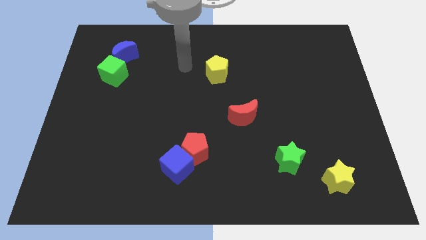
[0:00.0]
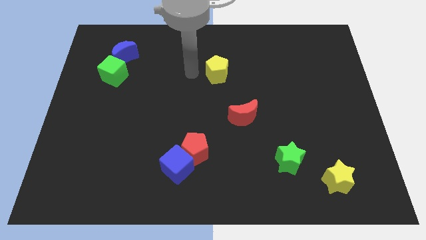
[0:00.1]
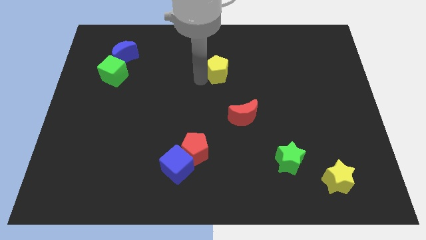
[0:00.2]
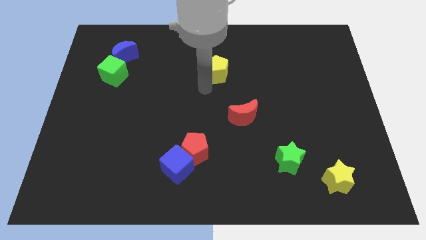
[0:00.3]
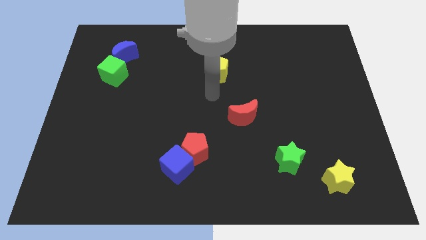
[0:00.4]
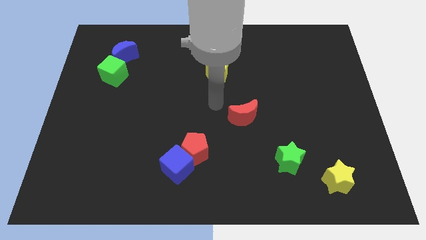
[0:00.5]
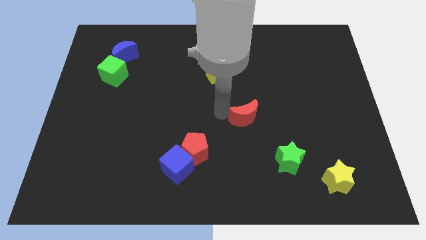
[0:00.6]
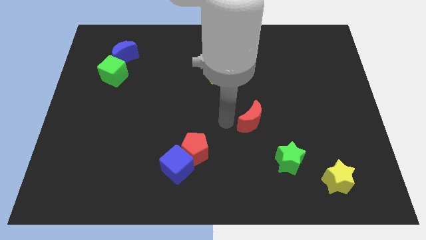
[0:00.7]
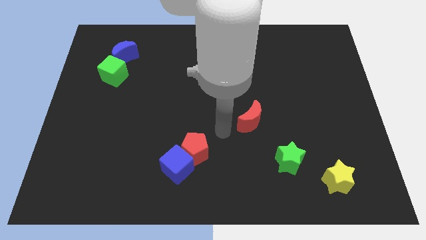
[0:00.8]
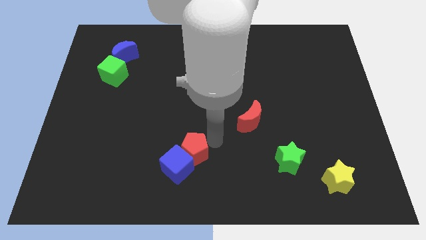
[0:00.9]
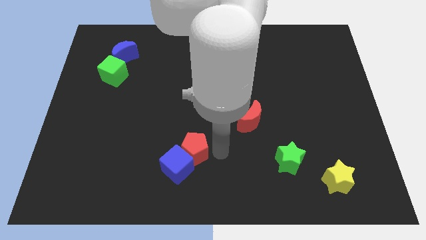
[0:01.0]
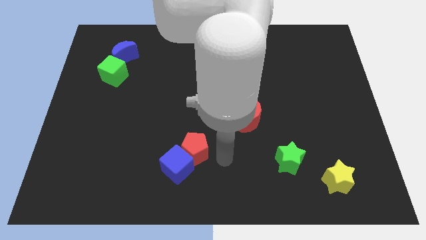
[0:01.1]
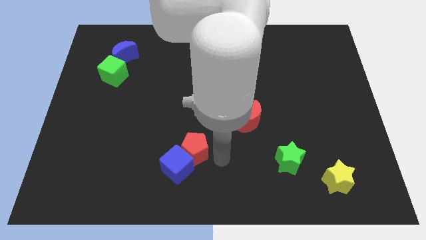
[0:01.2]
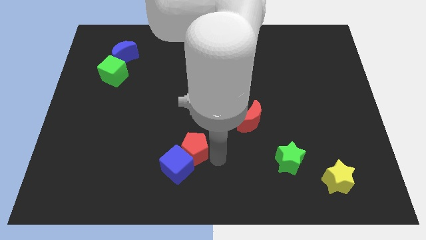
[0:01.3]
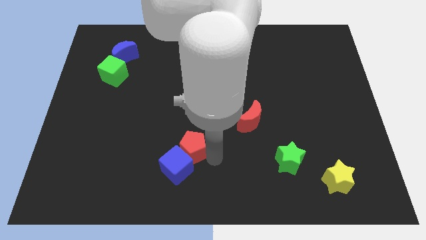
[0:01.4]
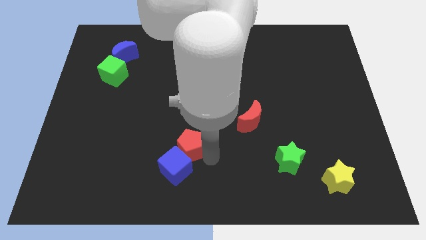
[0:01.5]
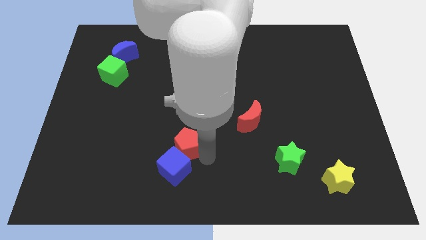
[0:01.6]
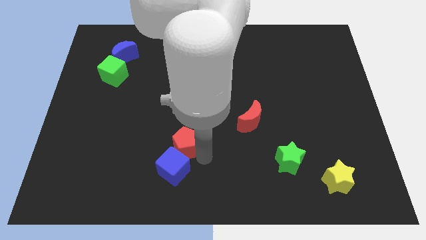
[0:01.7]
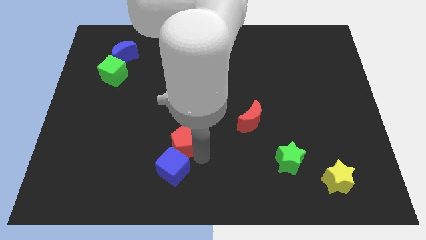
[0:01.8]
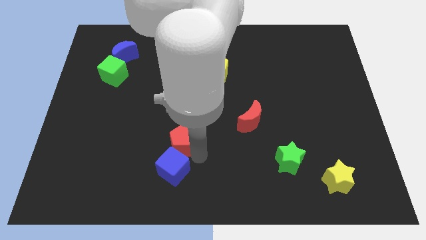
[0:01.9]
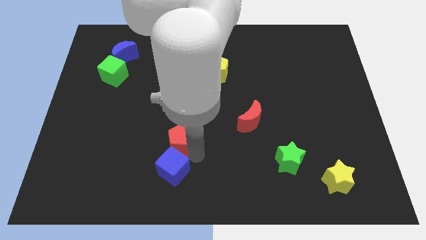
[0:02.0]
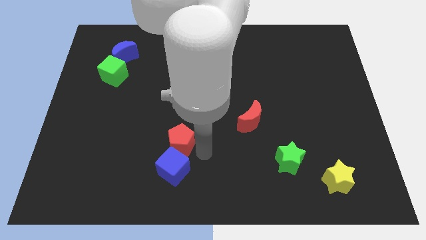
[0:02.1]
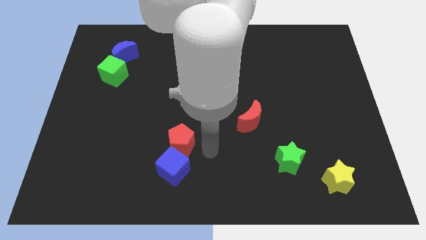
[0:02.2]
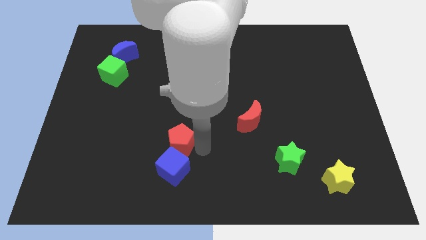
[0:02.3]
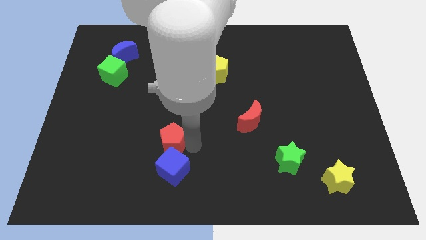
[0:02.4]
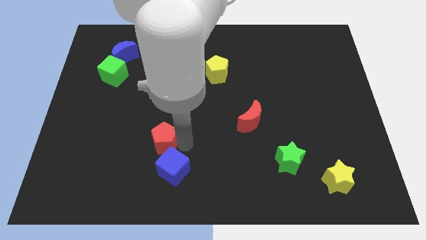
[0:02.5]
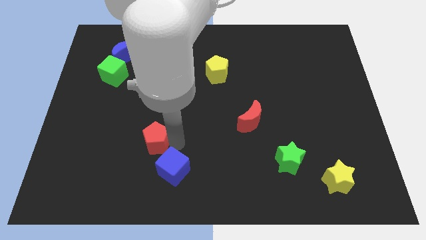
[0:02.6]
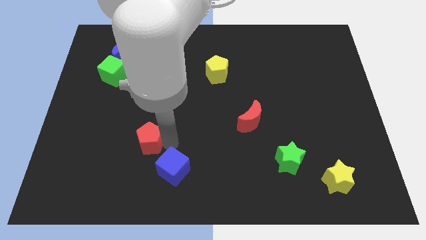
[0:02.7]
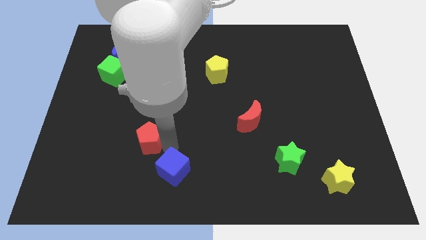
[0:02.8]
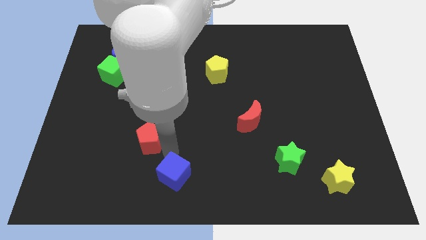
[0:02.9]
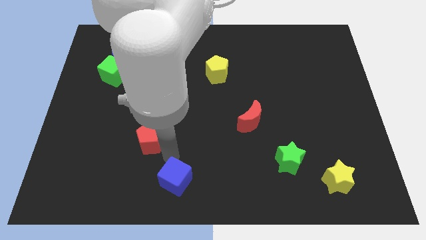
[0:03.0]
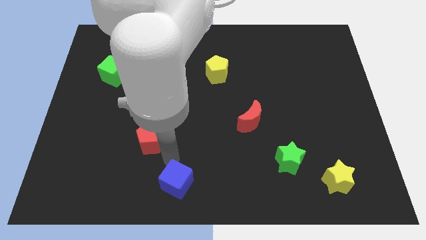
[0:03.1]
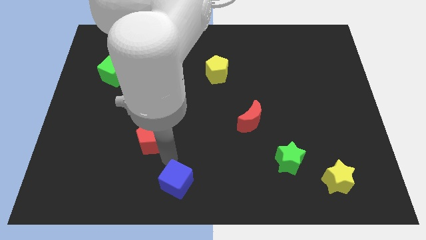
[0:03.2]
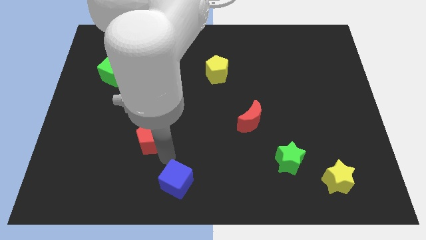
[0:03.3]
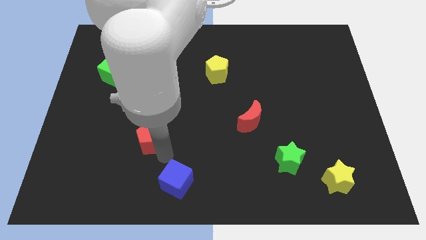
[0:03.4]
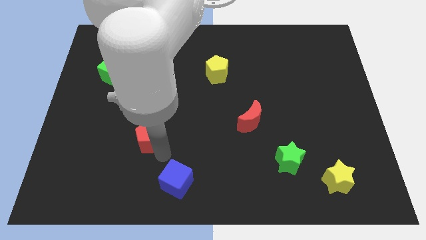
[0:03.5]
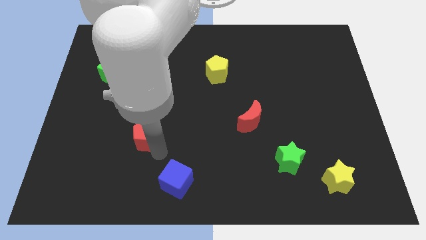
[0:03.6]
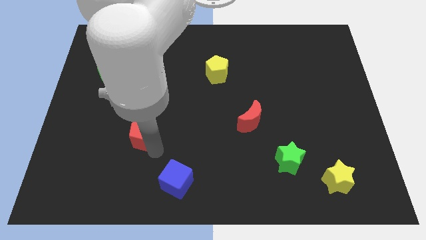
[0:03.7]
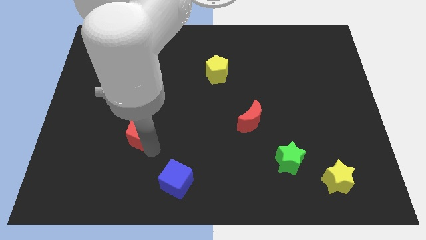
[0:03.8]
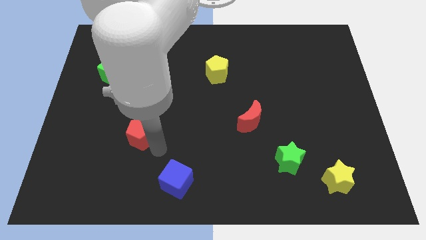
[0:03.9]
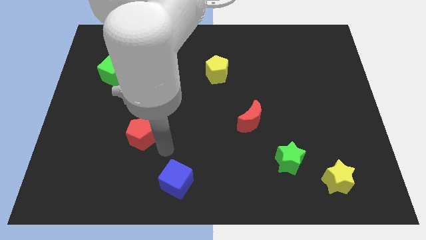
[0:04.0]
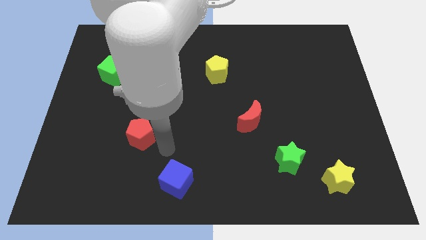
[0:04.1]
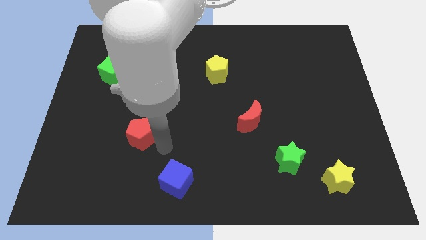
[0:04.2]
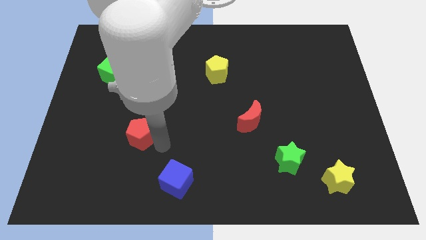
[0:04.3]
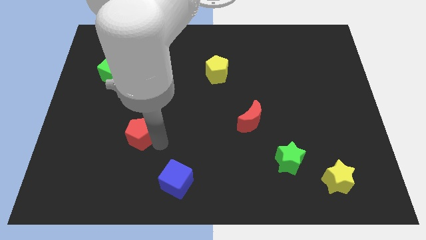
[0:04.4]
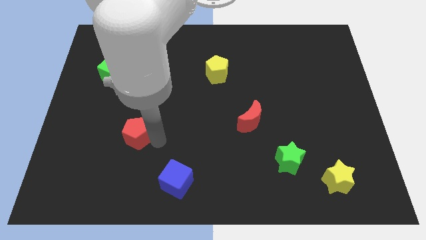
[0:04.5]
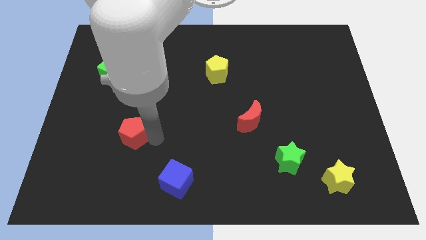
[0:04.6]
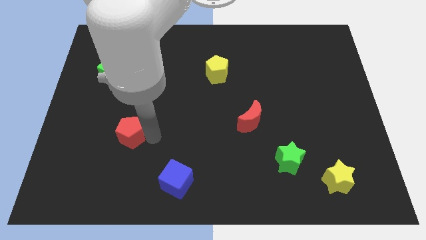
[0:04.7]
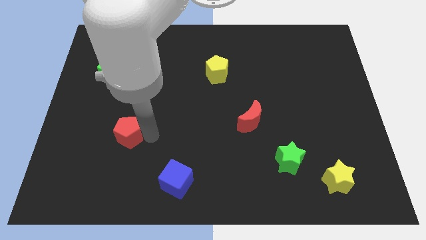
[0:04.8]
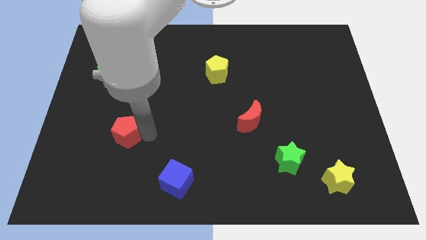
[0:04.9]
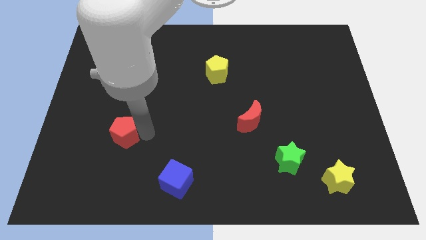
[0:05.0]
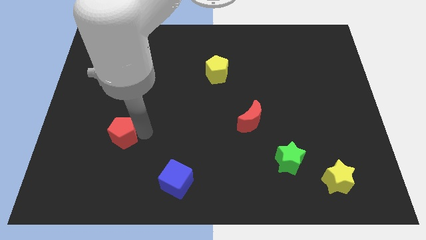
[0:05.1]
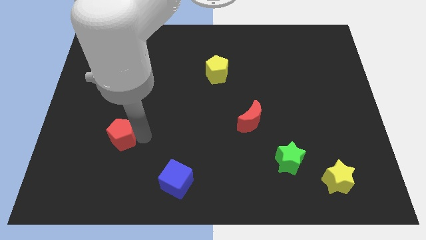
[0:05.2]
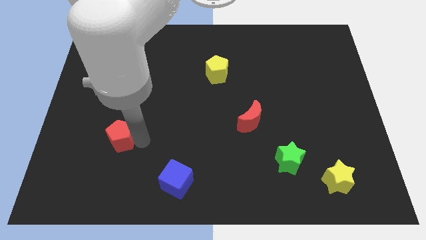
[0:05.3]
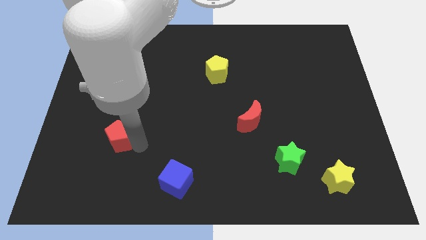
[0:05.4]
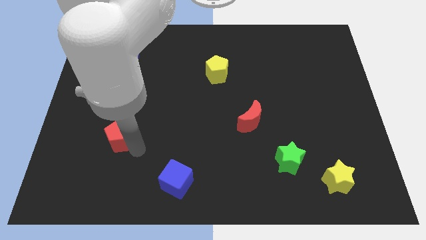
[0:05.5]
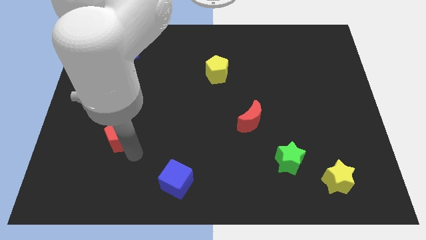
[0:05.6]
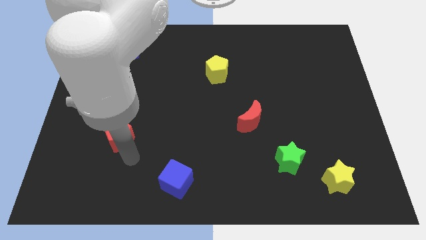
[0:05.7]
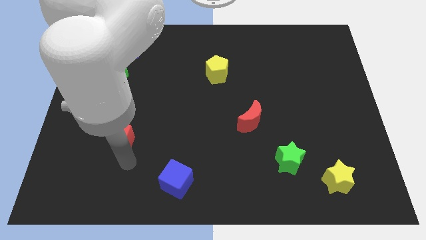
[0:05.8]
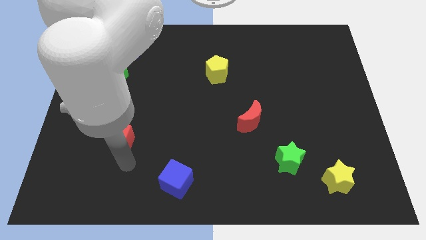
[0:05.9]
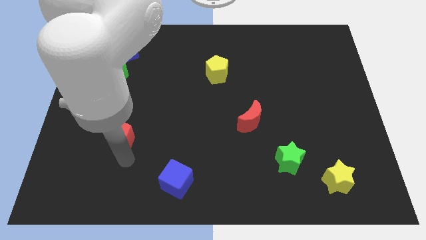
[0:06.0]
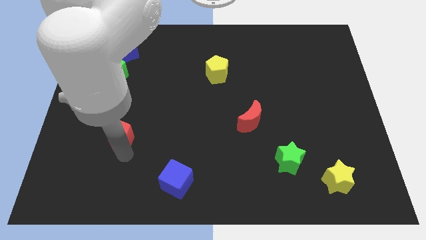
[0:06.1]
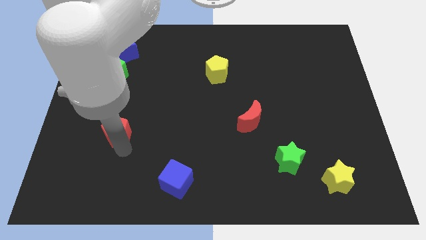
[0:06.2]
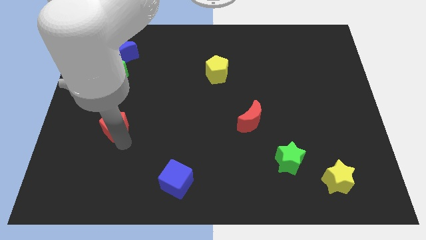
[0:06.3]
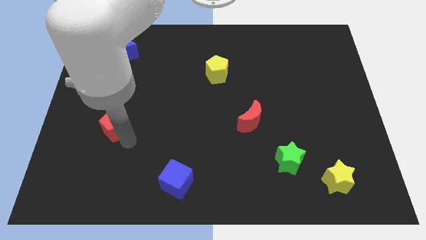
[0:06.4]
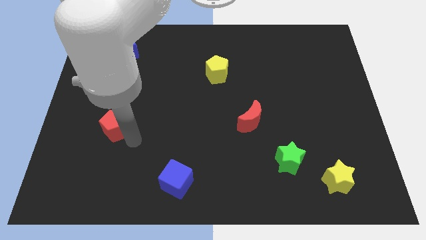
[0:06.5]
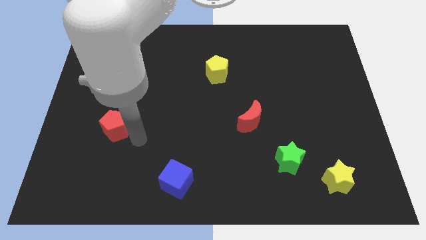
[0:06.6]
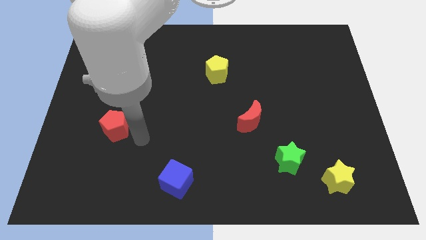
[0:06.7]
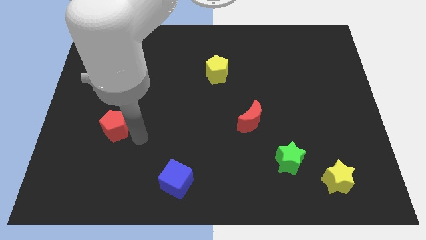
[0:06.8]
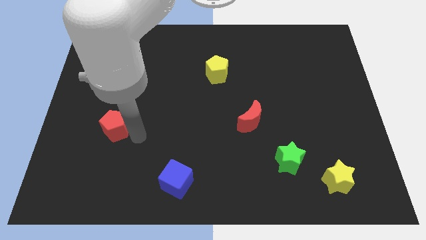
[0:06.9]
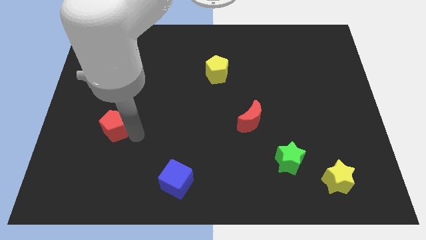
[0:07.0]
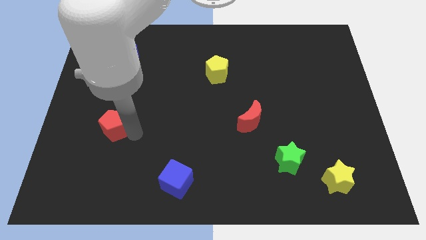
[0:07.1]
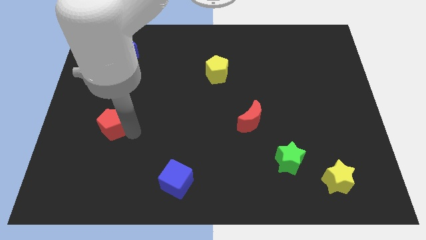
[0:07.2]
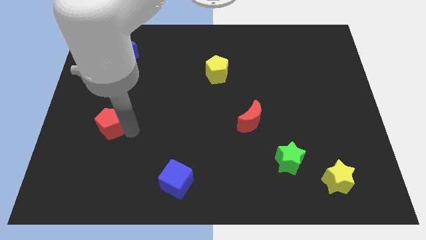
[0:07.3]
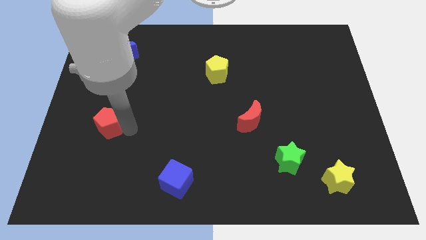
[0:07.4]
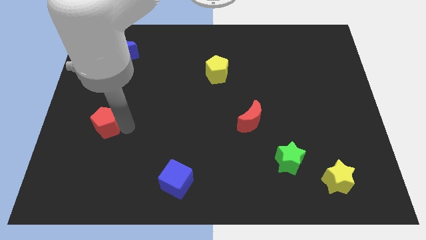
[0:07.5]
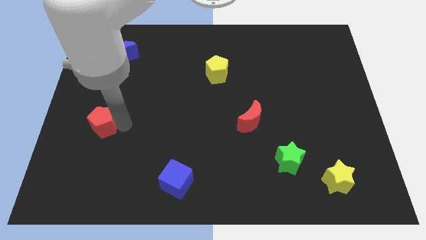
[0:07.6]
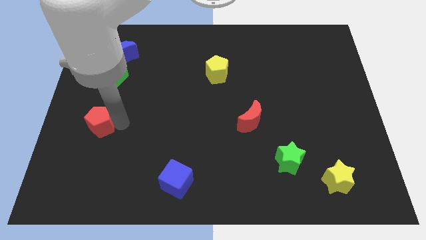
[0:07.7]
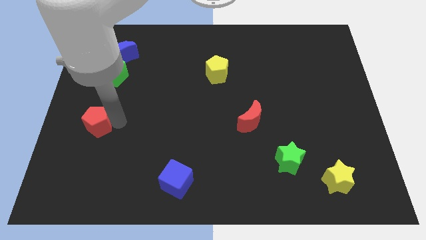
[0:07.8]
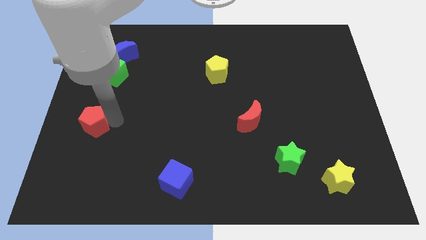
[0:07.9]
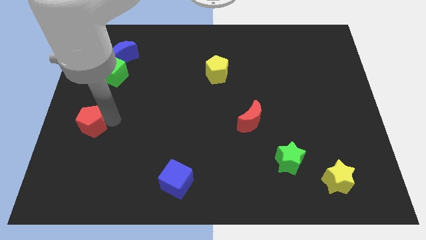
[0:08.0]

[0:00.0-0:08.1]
put the red pentagon to the center left
